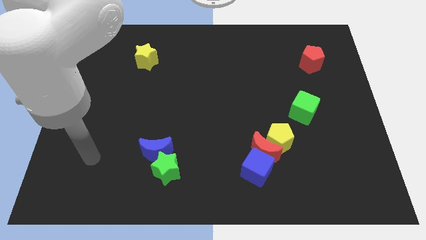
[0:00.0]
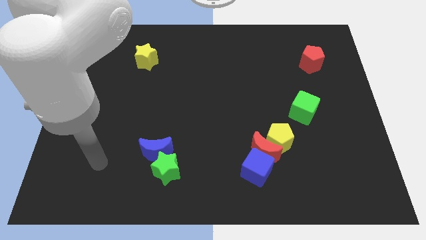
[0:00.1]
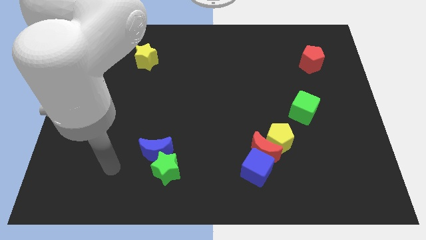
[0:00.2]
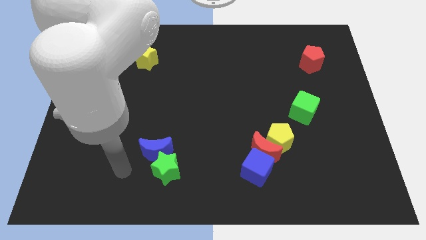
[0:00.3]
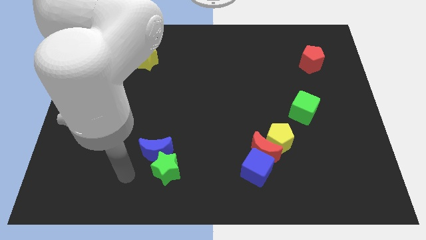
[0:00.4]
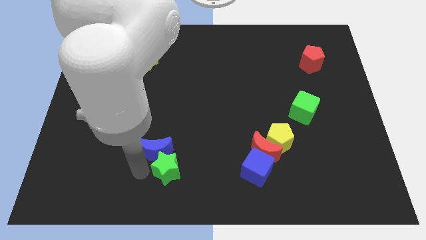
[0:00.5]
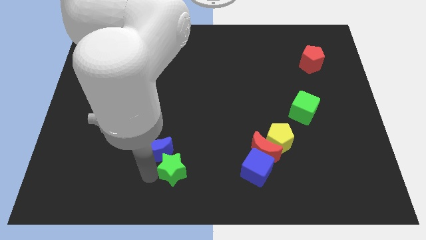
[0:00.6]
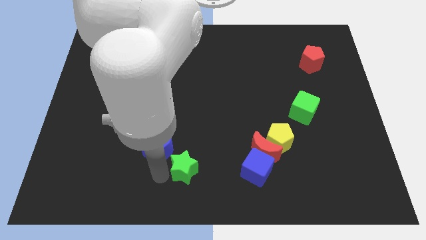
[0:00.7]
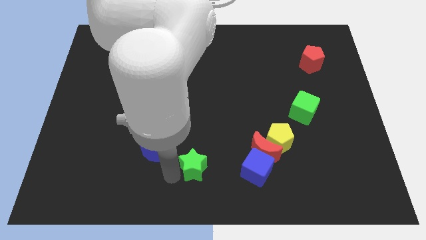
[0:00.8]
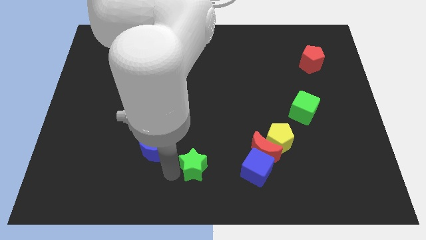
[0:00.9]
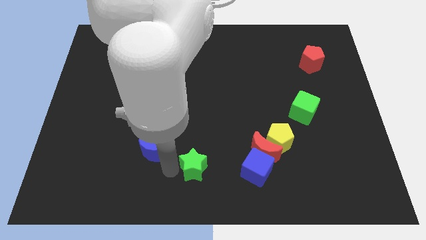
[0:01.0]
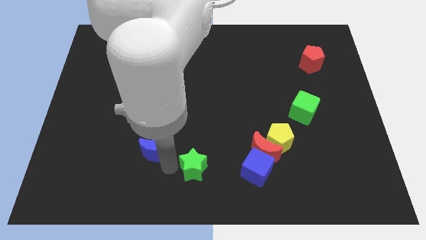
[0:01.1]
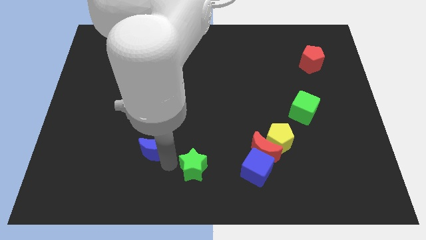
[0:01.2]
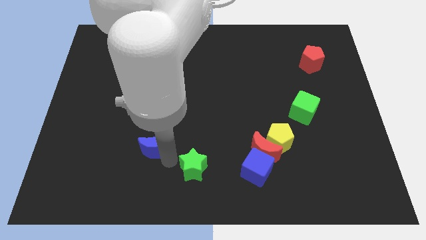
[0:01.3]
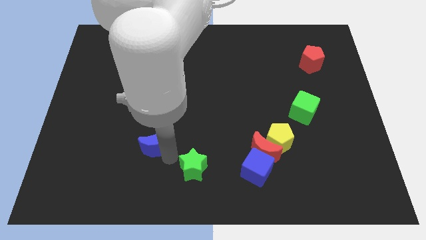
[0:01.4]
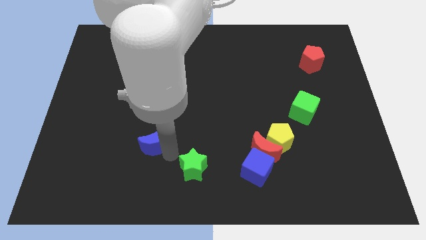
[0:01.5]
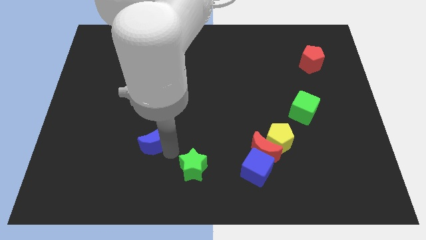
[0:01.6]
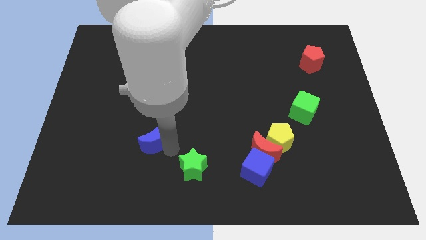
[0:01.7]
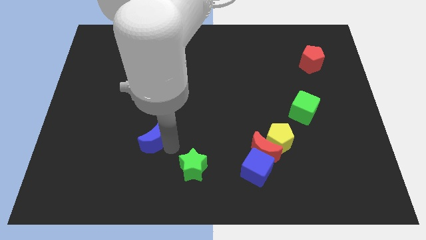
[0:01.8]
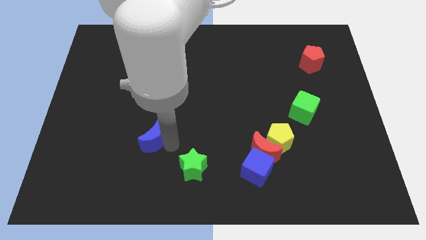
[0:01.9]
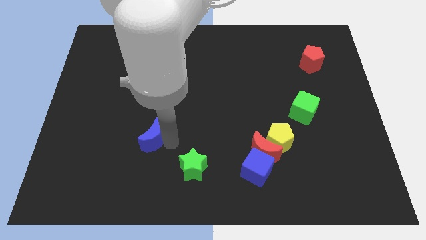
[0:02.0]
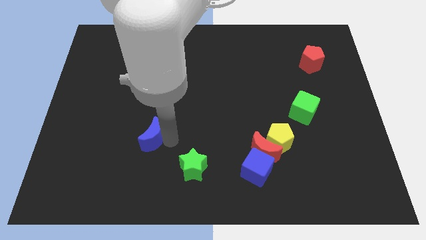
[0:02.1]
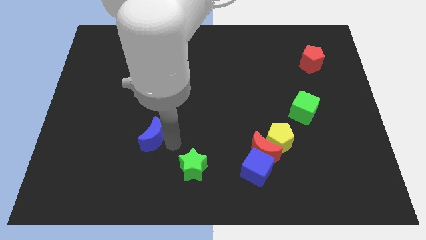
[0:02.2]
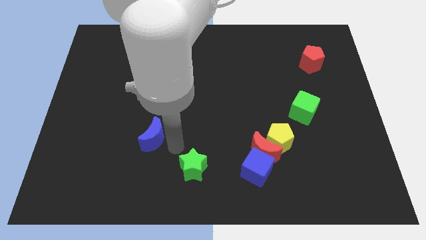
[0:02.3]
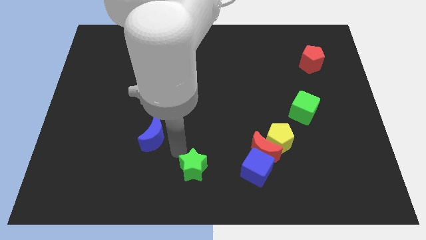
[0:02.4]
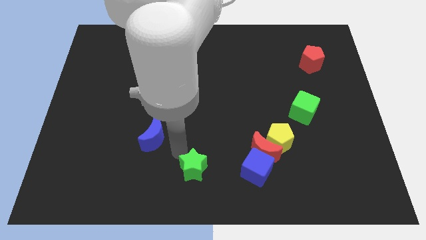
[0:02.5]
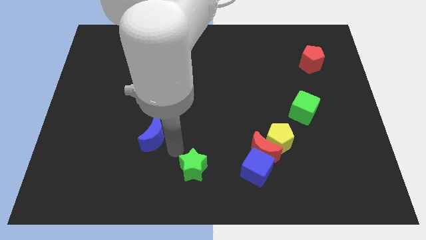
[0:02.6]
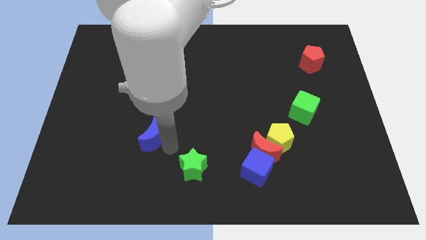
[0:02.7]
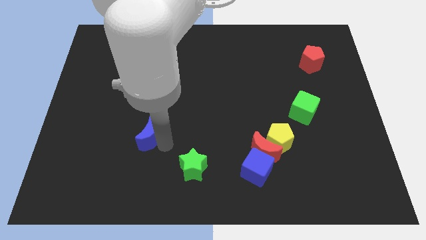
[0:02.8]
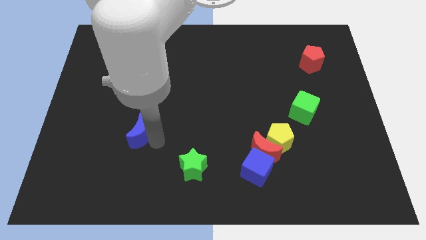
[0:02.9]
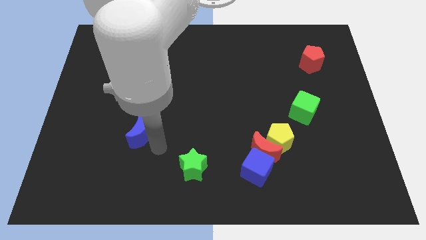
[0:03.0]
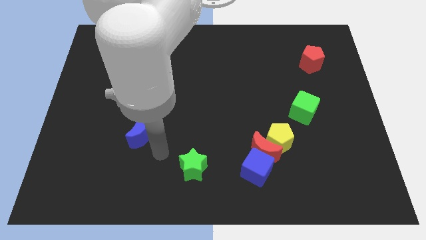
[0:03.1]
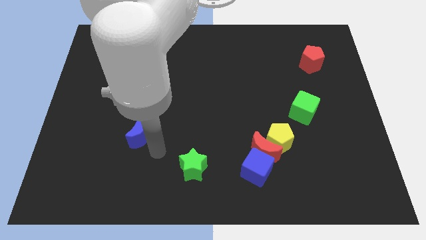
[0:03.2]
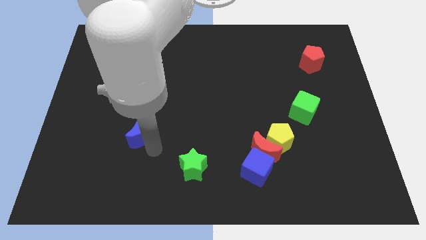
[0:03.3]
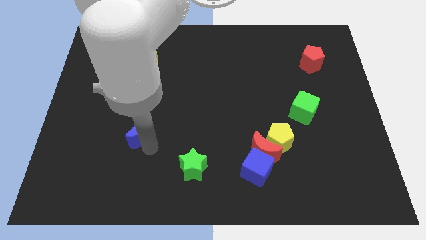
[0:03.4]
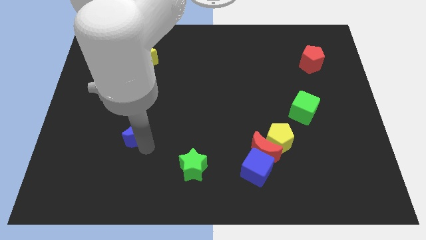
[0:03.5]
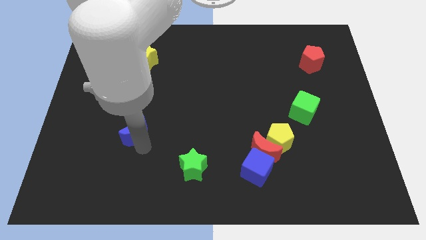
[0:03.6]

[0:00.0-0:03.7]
push the blue moon a bit diagonally up and to the left

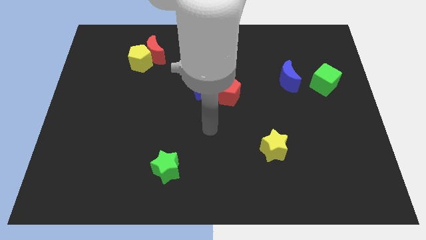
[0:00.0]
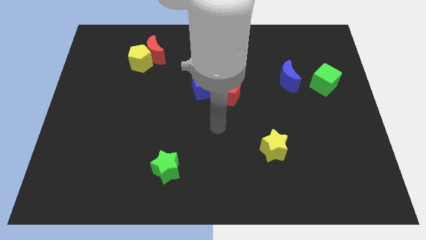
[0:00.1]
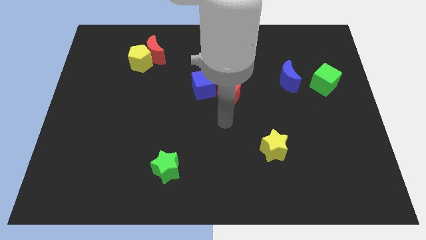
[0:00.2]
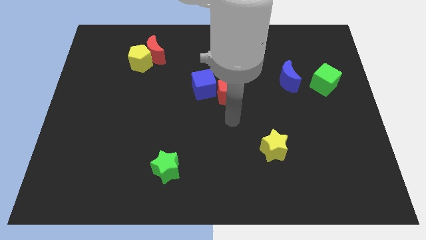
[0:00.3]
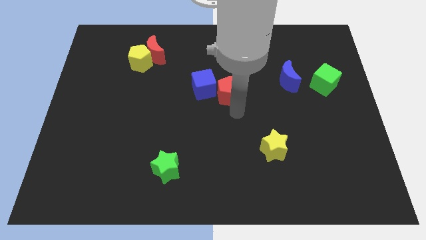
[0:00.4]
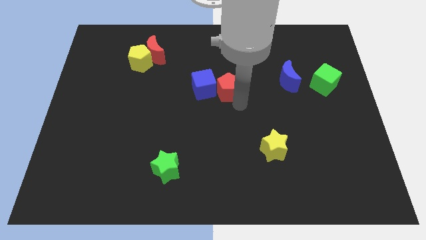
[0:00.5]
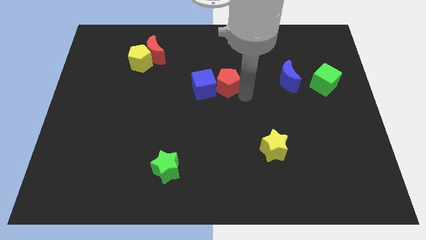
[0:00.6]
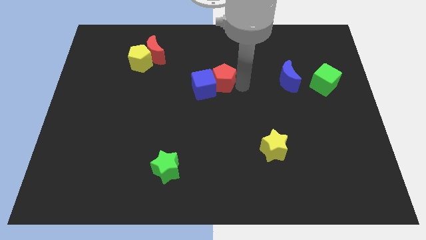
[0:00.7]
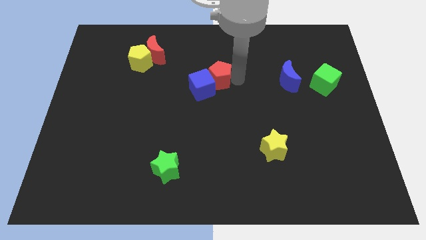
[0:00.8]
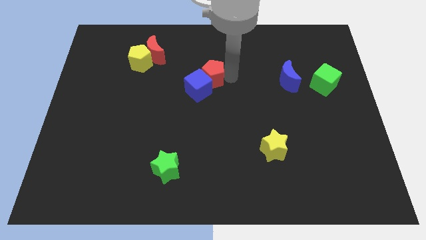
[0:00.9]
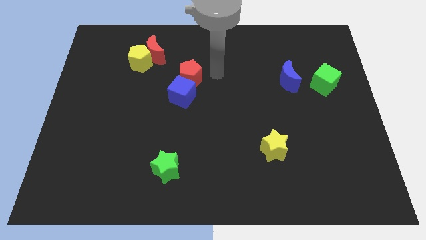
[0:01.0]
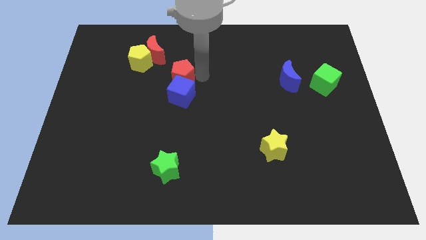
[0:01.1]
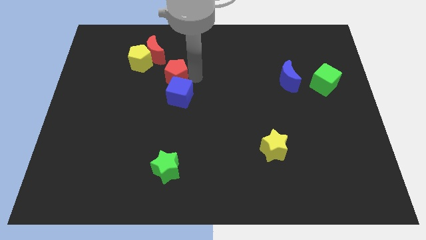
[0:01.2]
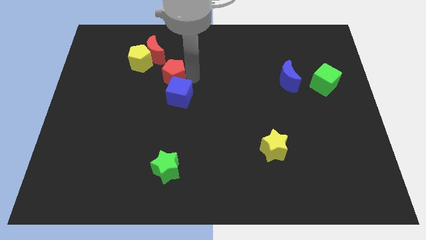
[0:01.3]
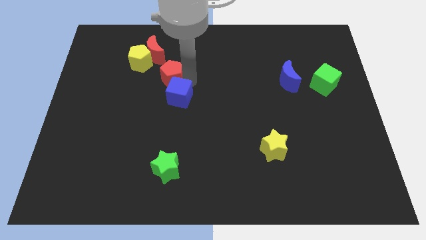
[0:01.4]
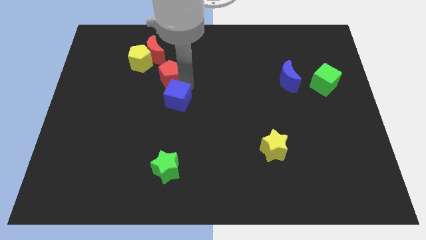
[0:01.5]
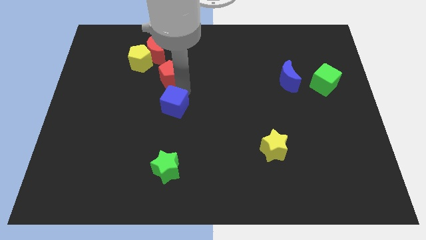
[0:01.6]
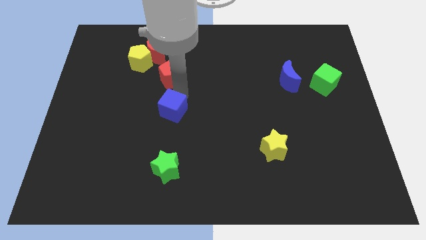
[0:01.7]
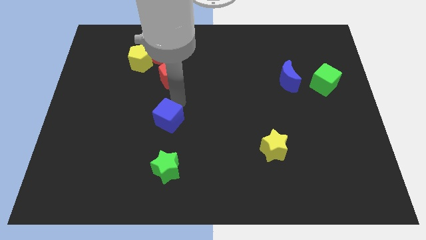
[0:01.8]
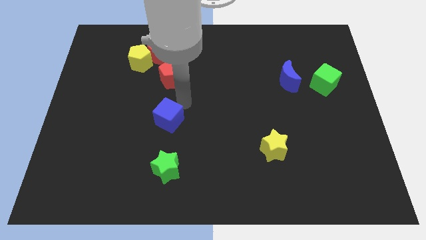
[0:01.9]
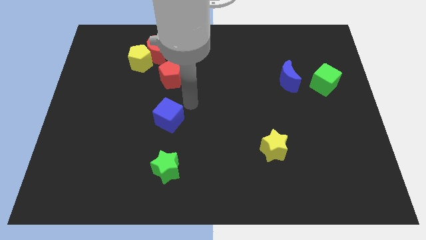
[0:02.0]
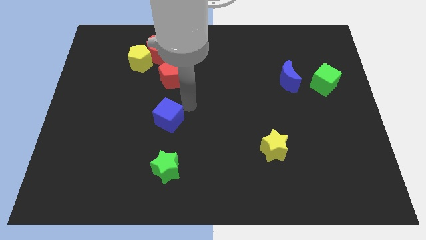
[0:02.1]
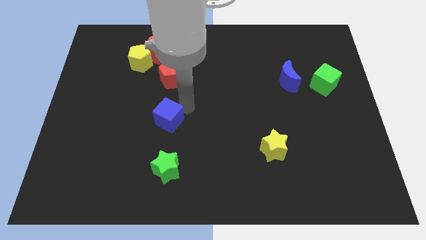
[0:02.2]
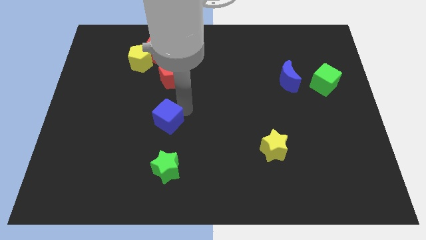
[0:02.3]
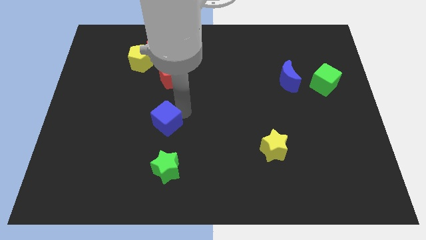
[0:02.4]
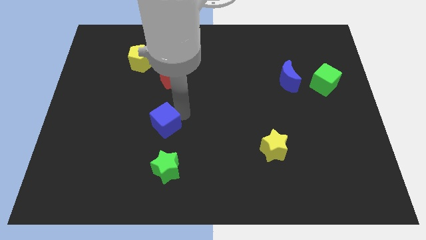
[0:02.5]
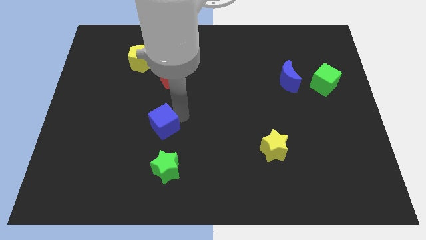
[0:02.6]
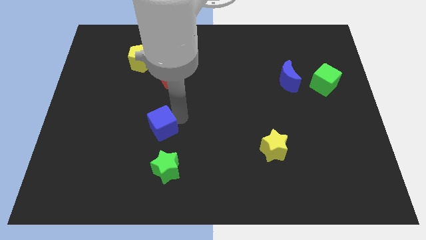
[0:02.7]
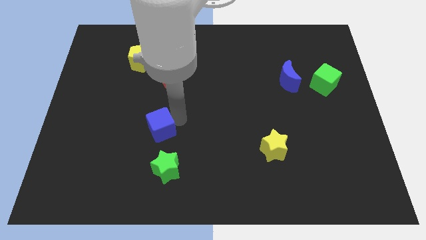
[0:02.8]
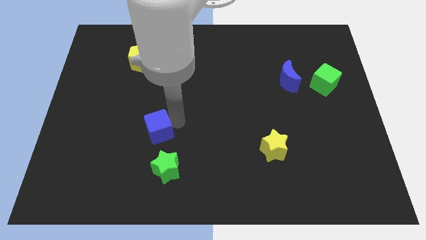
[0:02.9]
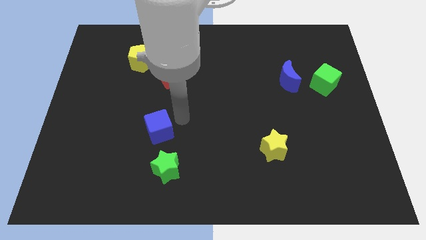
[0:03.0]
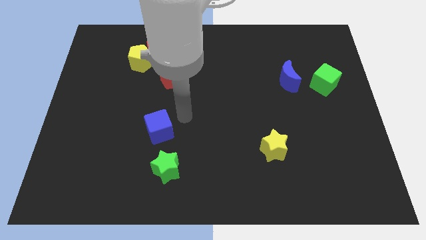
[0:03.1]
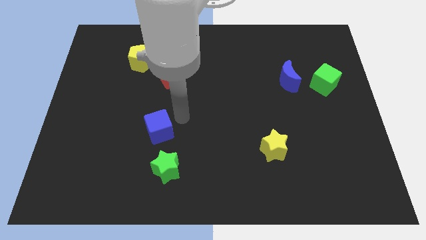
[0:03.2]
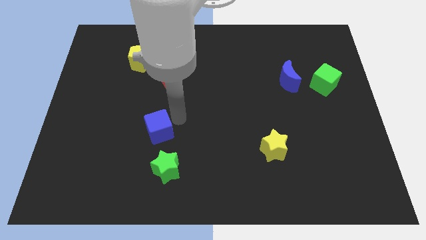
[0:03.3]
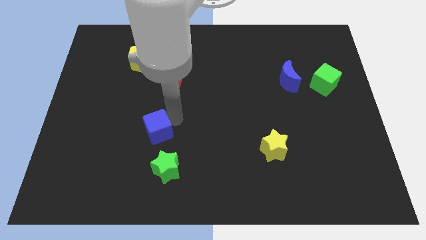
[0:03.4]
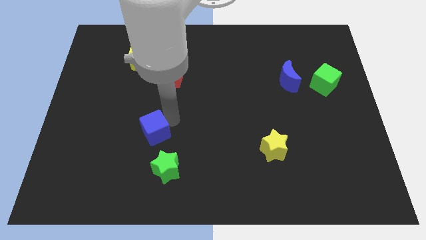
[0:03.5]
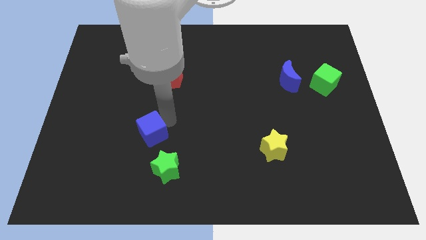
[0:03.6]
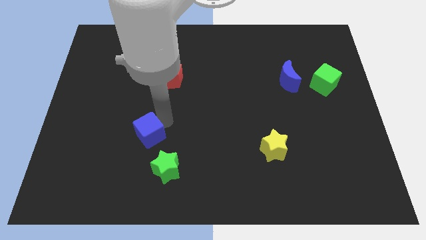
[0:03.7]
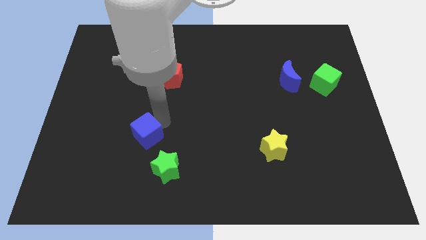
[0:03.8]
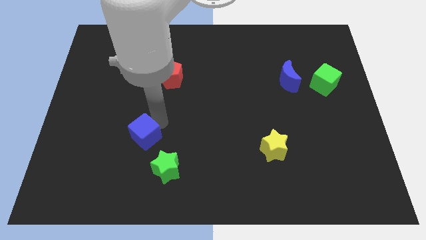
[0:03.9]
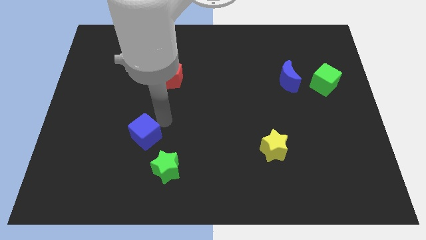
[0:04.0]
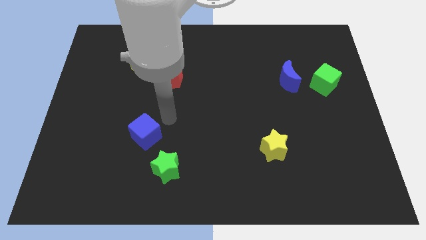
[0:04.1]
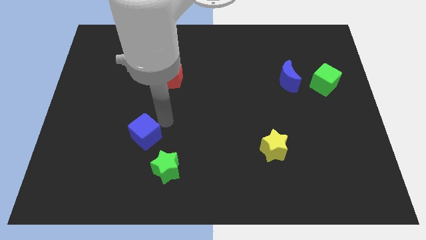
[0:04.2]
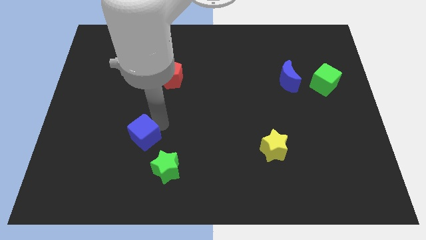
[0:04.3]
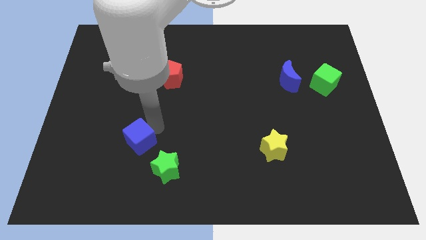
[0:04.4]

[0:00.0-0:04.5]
push the blue cube diagonally downwards and left
